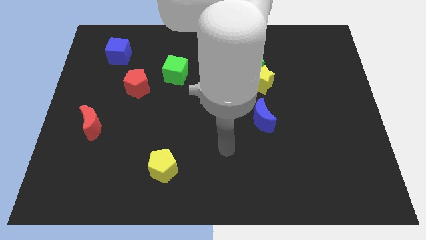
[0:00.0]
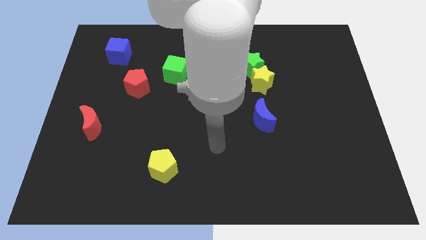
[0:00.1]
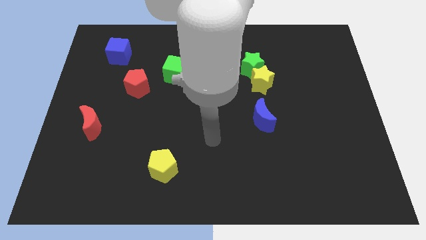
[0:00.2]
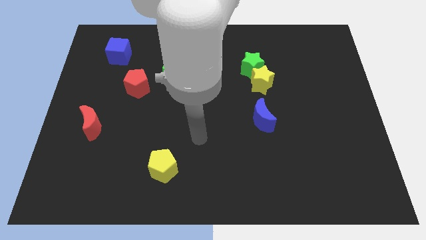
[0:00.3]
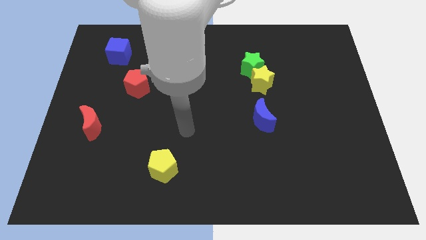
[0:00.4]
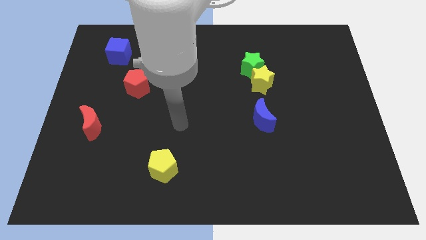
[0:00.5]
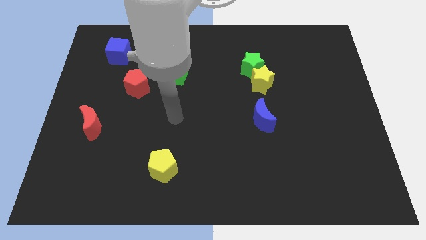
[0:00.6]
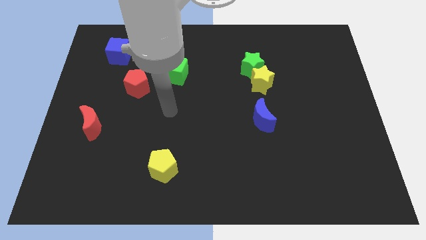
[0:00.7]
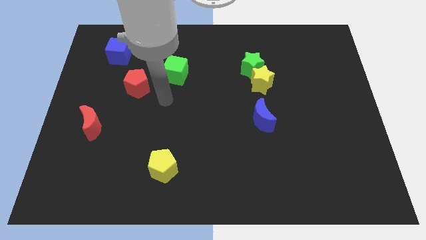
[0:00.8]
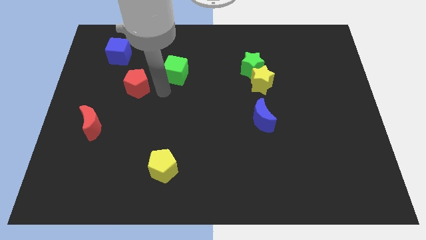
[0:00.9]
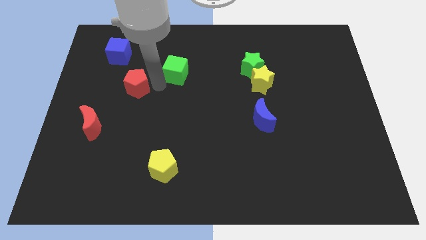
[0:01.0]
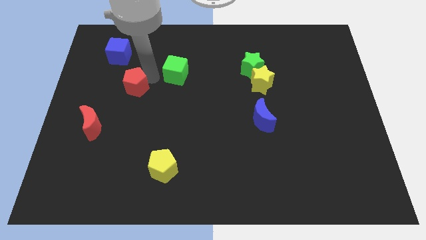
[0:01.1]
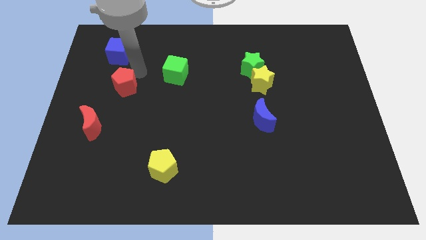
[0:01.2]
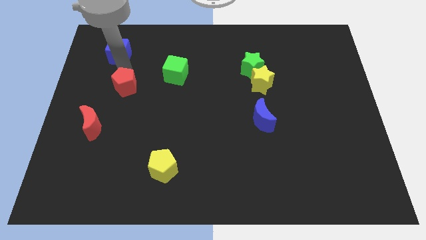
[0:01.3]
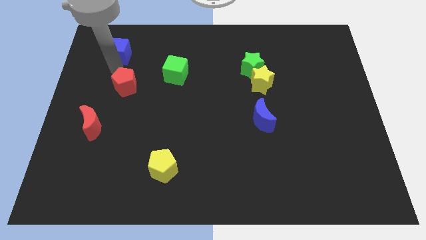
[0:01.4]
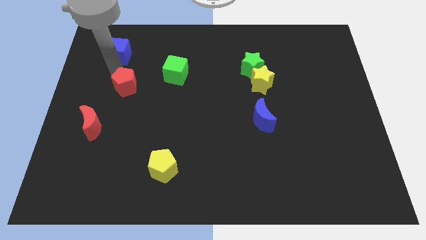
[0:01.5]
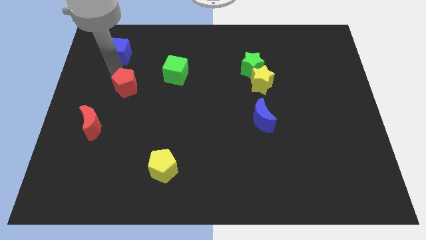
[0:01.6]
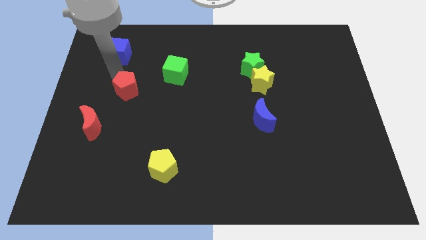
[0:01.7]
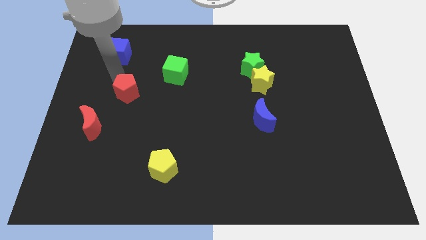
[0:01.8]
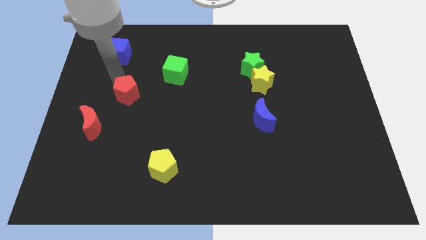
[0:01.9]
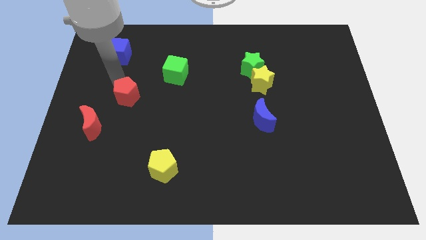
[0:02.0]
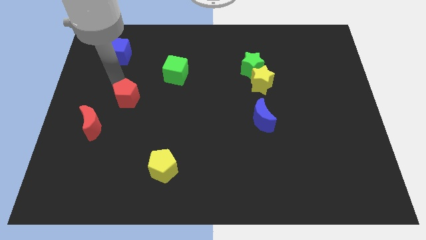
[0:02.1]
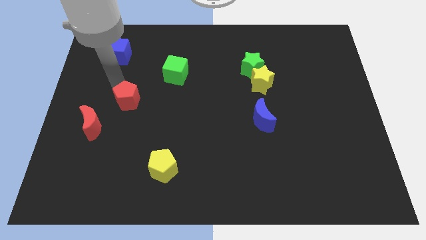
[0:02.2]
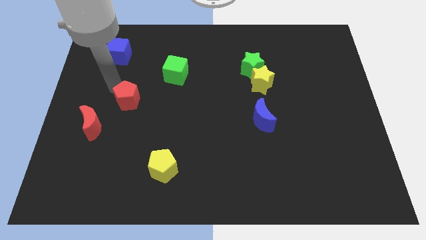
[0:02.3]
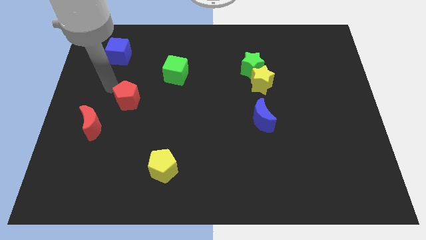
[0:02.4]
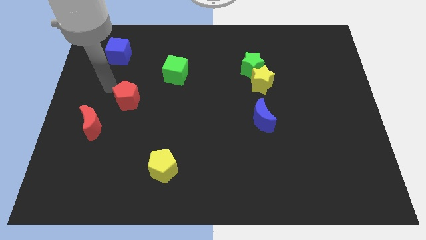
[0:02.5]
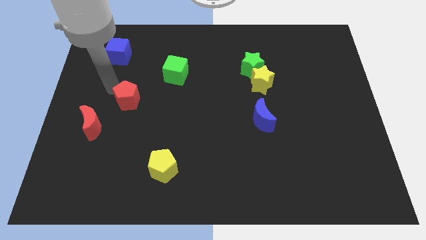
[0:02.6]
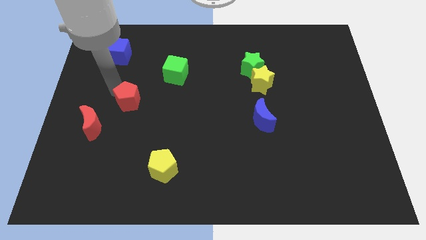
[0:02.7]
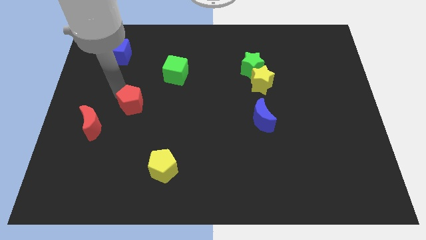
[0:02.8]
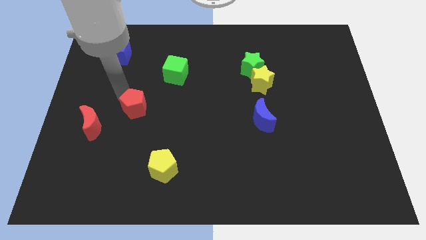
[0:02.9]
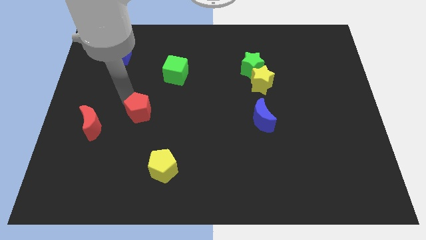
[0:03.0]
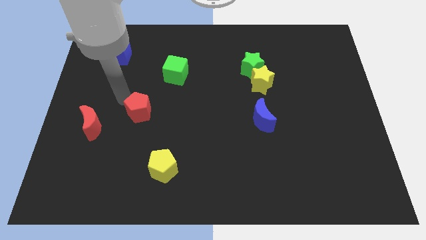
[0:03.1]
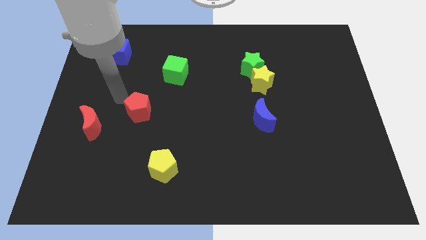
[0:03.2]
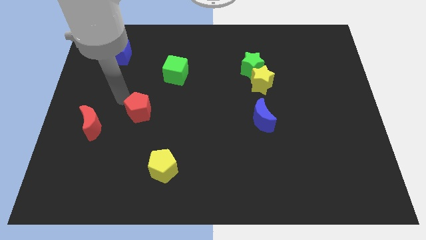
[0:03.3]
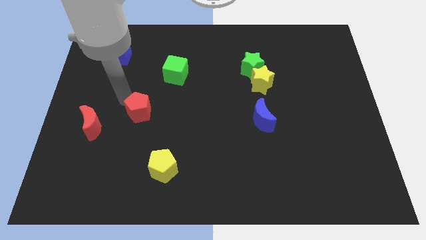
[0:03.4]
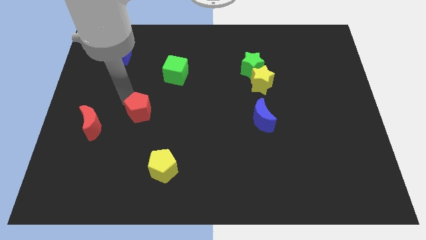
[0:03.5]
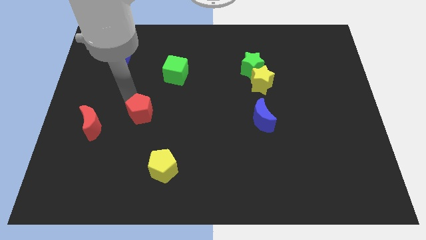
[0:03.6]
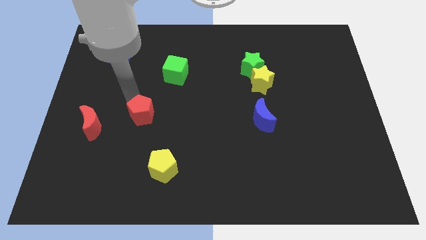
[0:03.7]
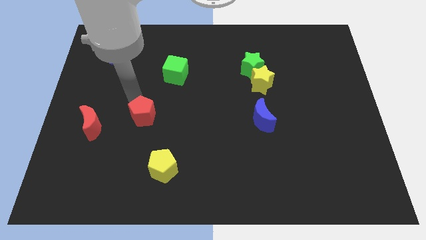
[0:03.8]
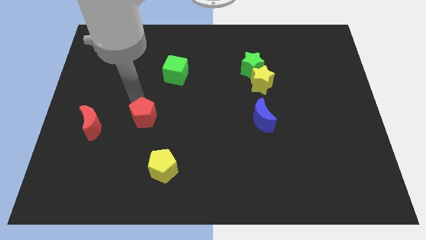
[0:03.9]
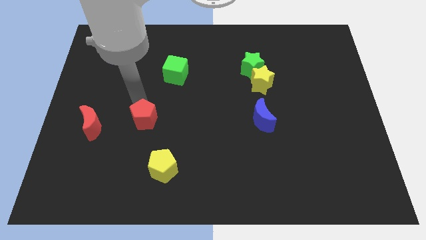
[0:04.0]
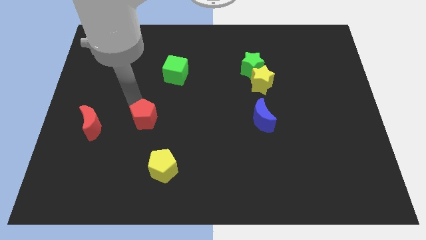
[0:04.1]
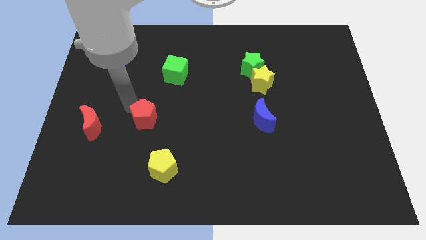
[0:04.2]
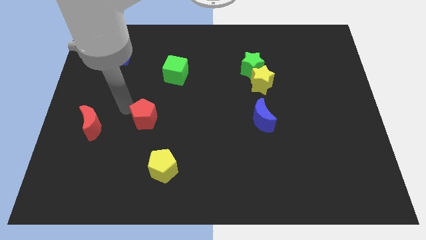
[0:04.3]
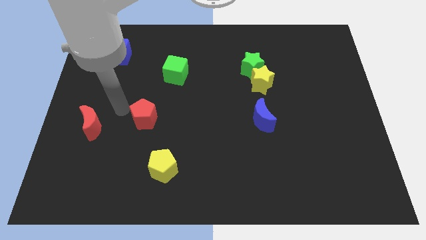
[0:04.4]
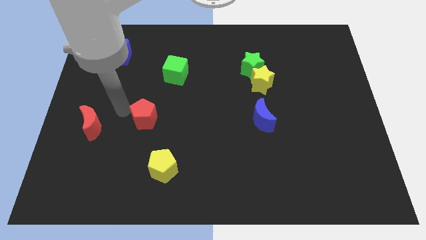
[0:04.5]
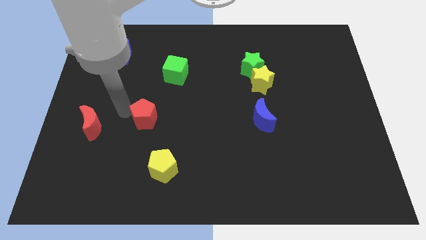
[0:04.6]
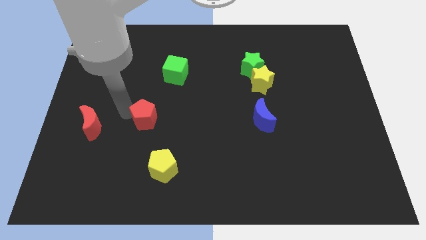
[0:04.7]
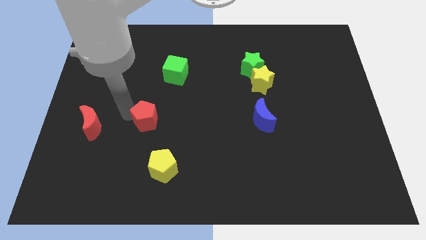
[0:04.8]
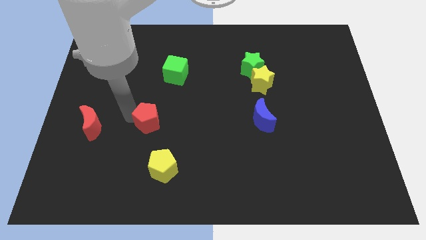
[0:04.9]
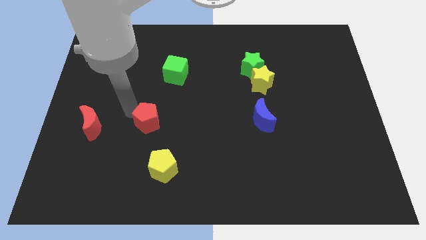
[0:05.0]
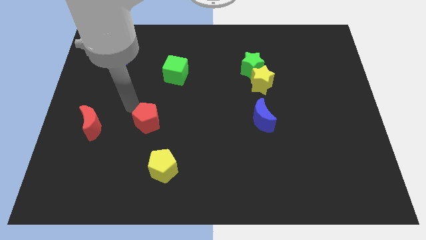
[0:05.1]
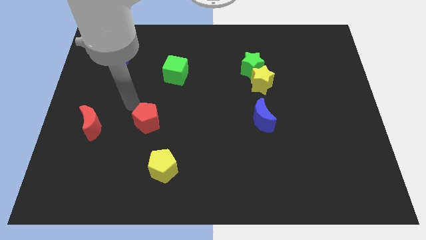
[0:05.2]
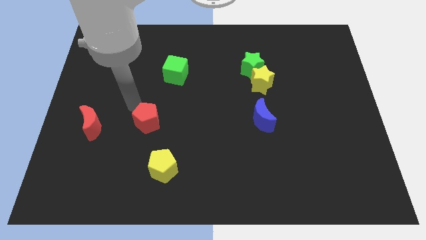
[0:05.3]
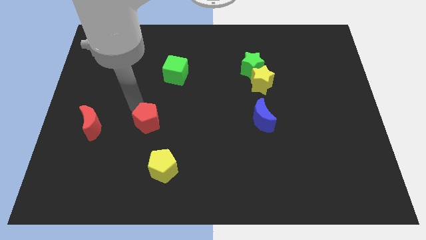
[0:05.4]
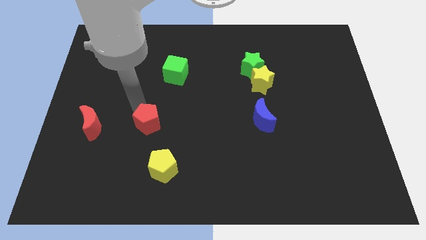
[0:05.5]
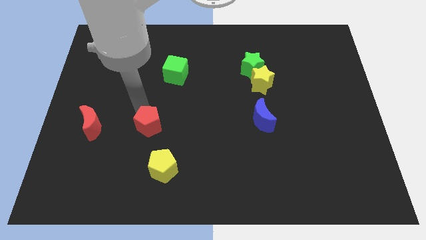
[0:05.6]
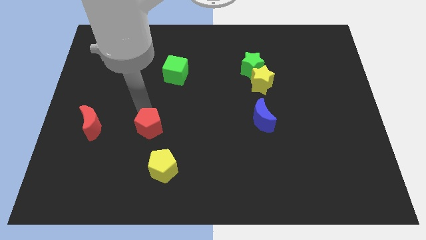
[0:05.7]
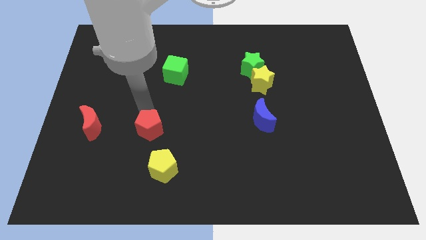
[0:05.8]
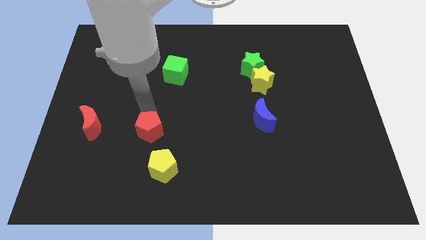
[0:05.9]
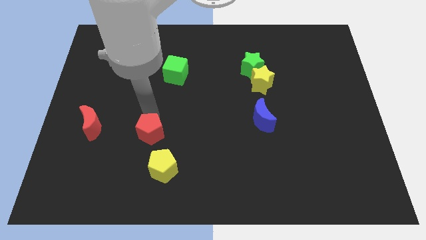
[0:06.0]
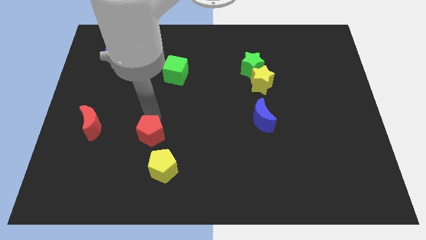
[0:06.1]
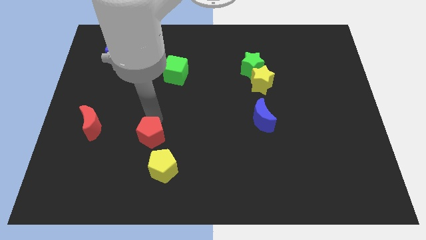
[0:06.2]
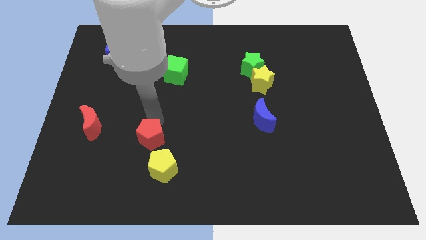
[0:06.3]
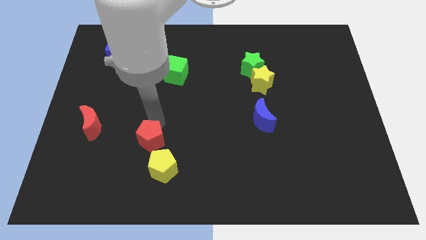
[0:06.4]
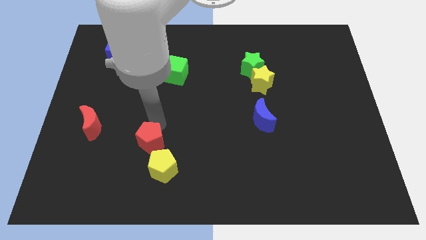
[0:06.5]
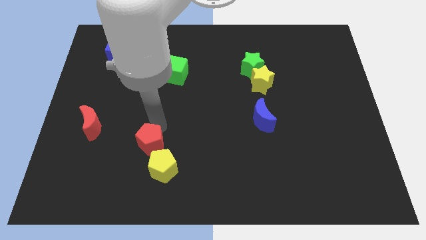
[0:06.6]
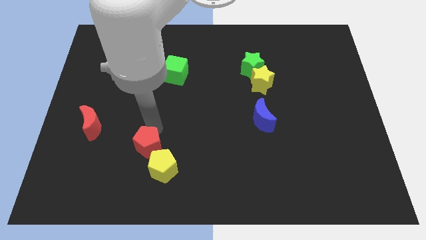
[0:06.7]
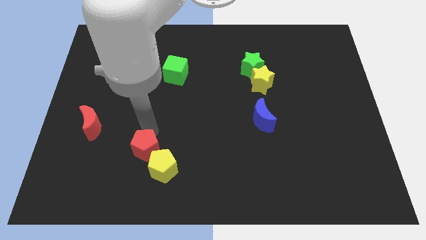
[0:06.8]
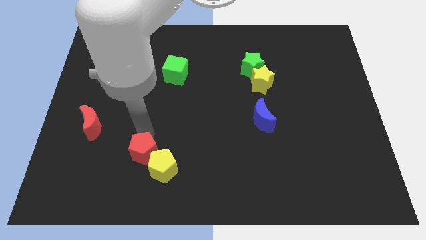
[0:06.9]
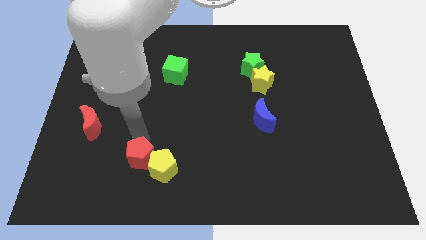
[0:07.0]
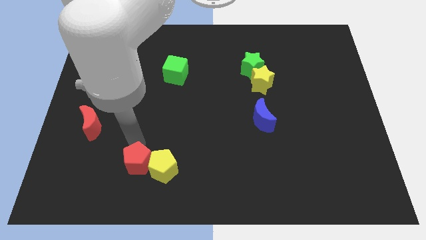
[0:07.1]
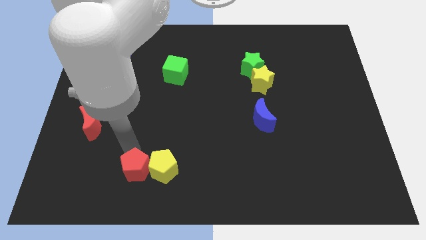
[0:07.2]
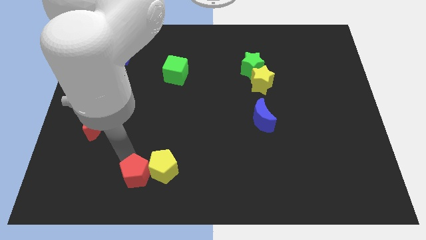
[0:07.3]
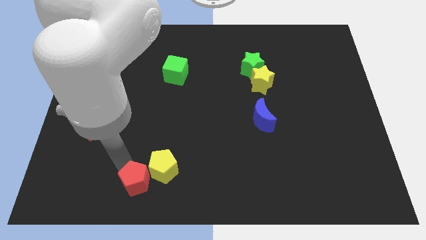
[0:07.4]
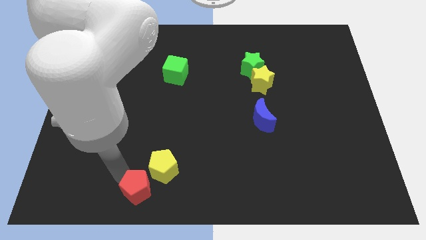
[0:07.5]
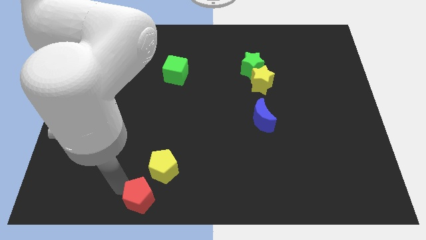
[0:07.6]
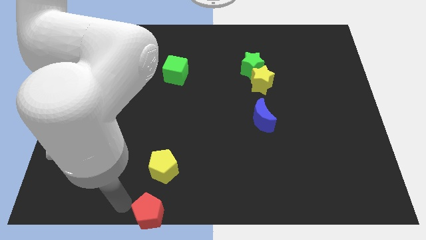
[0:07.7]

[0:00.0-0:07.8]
slide the red pentagon to the bottom side
